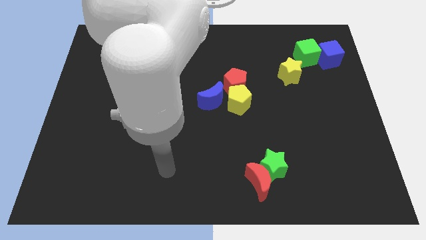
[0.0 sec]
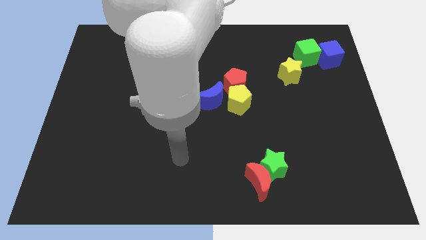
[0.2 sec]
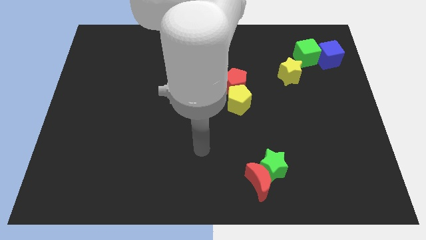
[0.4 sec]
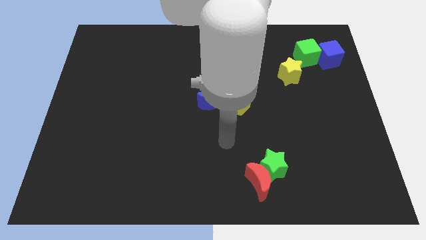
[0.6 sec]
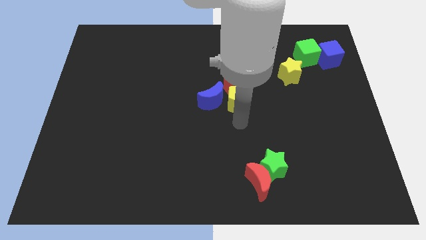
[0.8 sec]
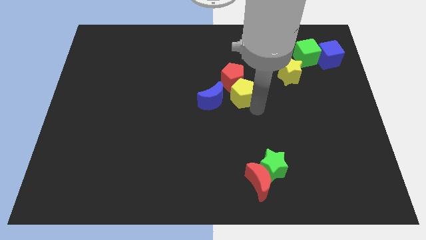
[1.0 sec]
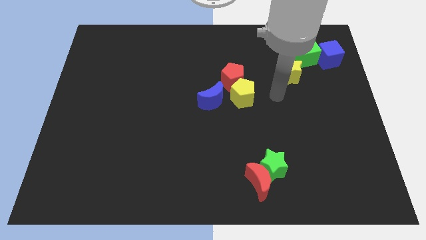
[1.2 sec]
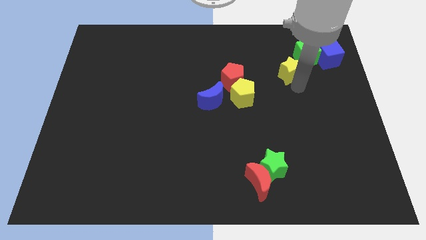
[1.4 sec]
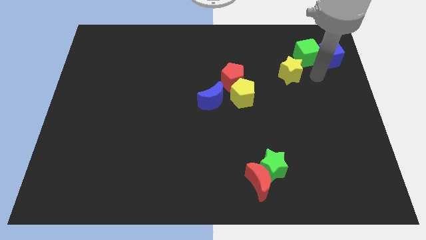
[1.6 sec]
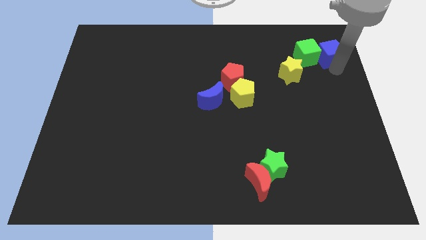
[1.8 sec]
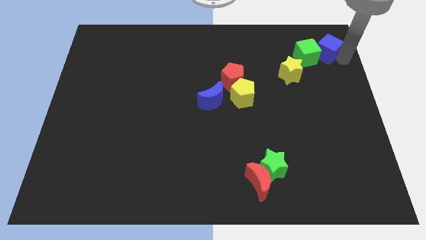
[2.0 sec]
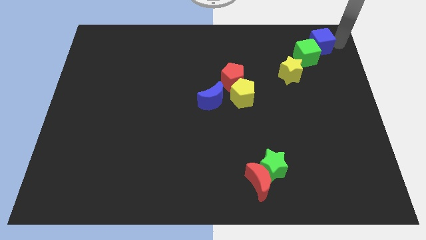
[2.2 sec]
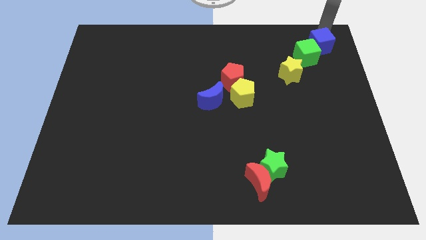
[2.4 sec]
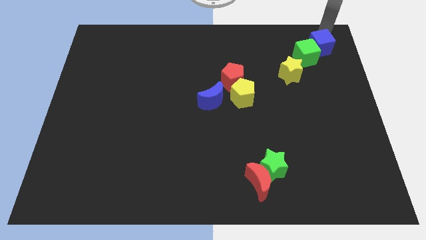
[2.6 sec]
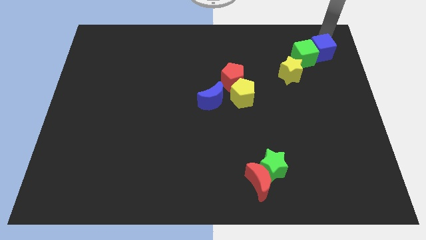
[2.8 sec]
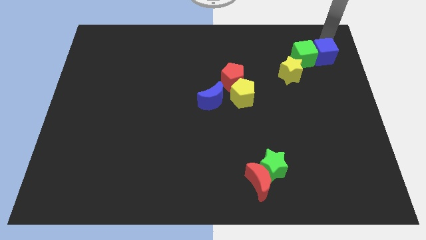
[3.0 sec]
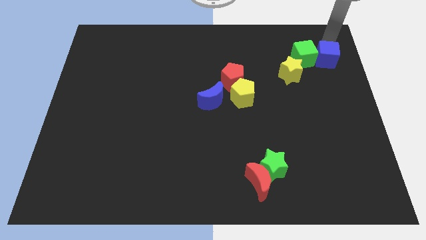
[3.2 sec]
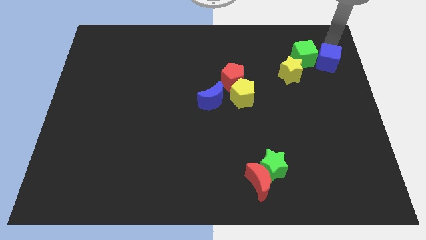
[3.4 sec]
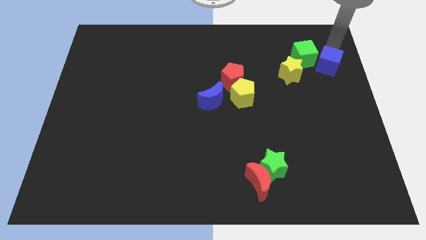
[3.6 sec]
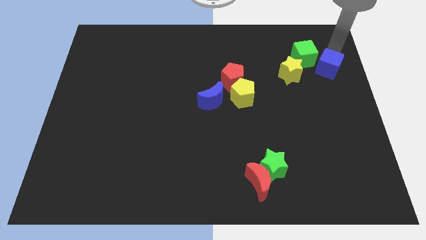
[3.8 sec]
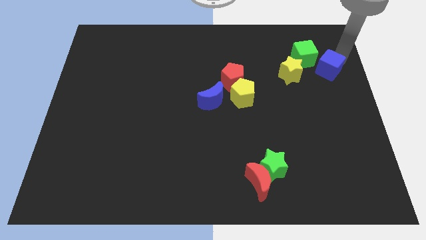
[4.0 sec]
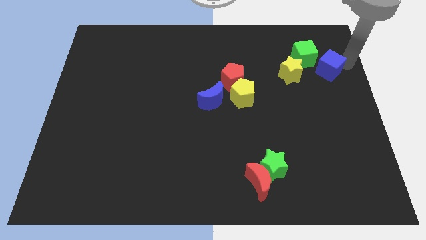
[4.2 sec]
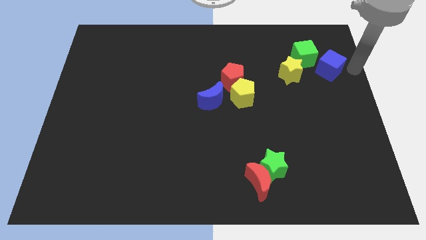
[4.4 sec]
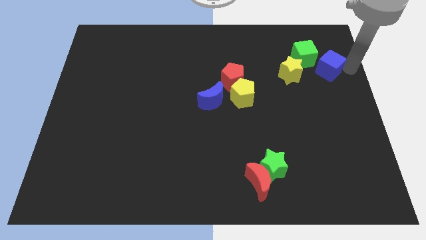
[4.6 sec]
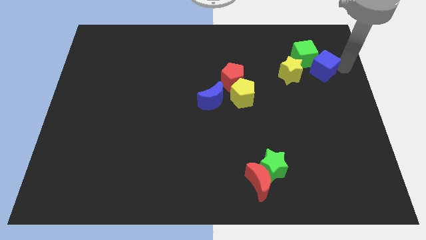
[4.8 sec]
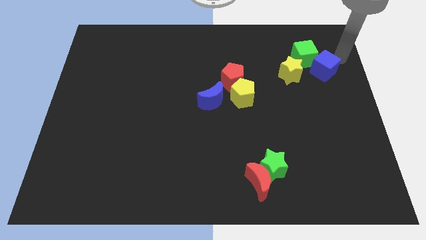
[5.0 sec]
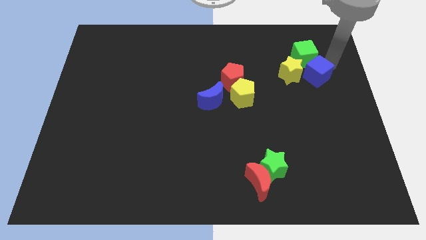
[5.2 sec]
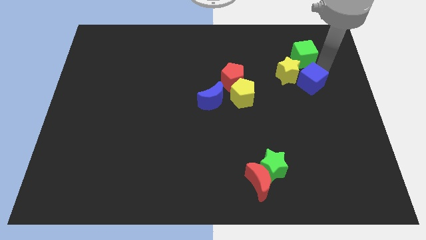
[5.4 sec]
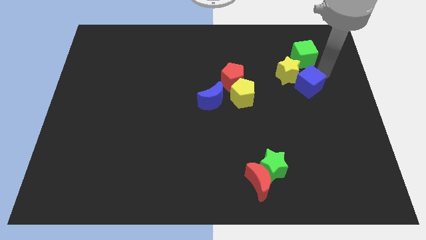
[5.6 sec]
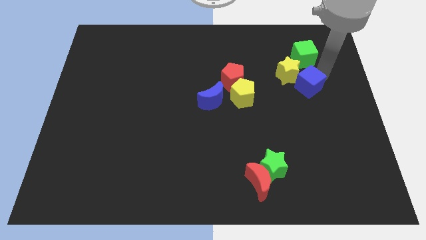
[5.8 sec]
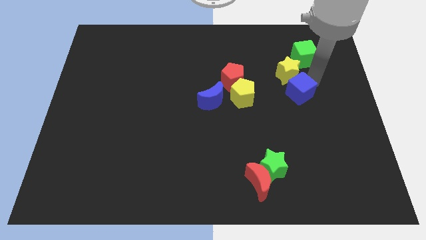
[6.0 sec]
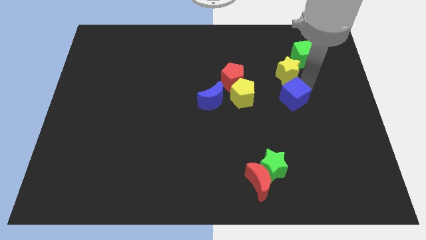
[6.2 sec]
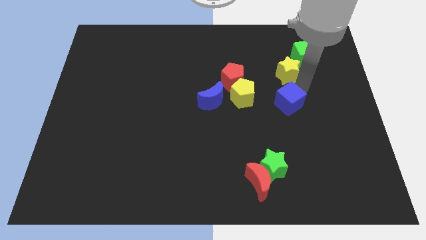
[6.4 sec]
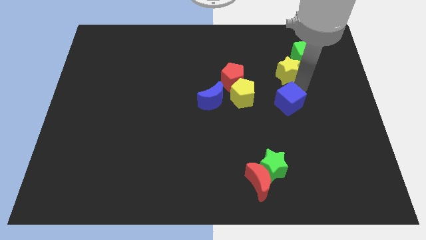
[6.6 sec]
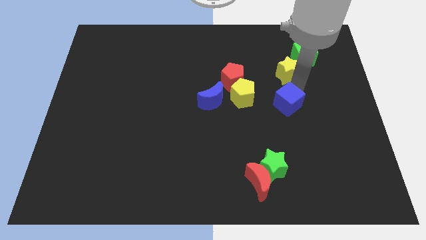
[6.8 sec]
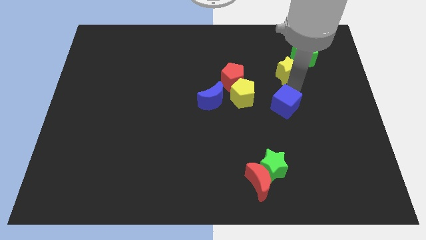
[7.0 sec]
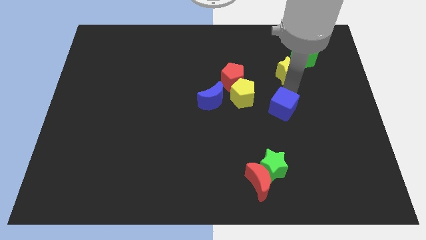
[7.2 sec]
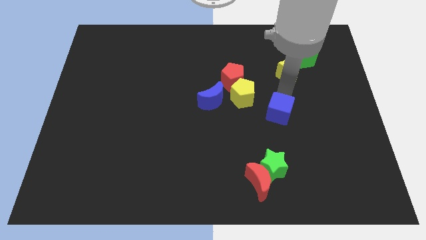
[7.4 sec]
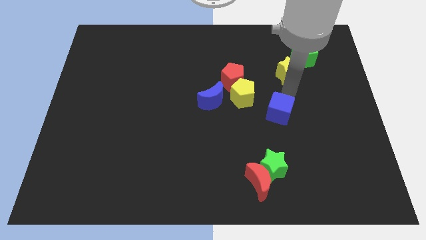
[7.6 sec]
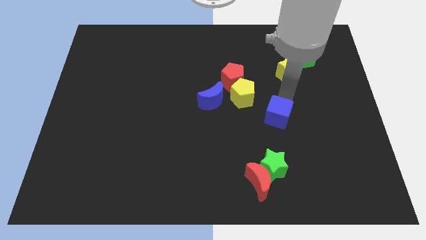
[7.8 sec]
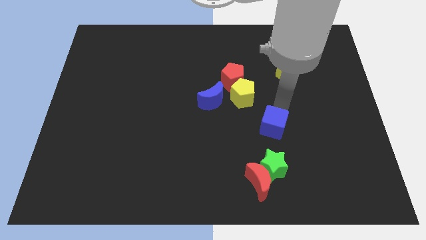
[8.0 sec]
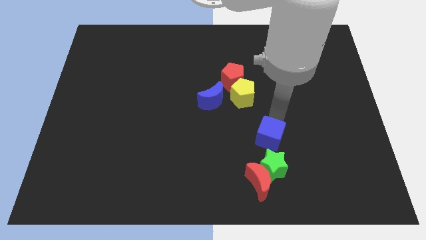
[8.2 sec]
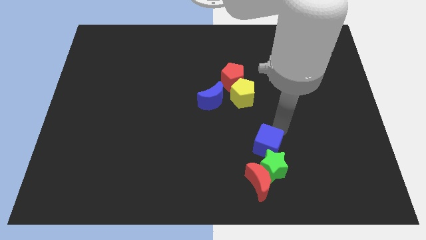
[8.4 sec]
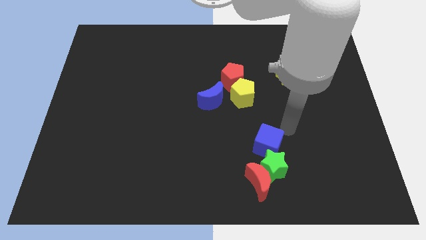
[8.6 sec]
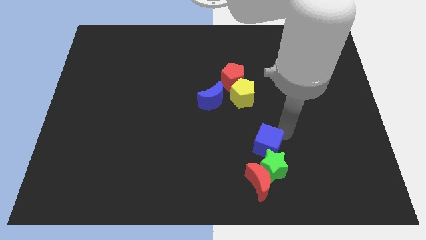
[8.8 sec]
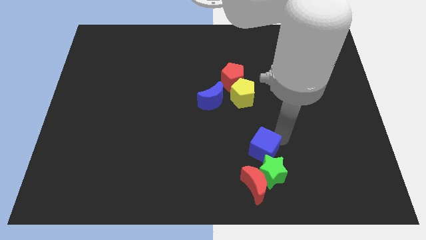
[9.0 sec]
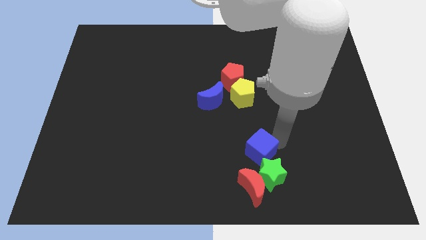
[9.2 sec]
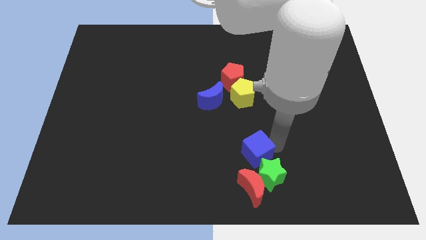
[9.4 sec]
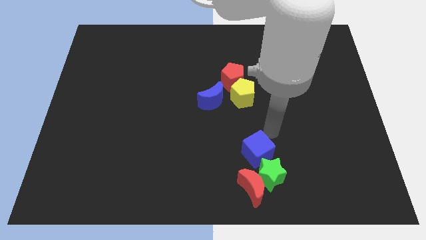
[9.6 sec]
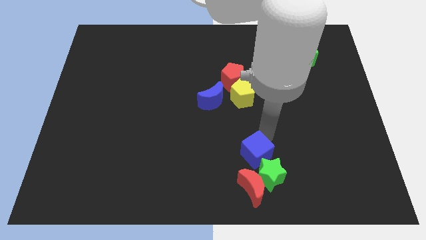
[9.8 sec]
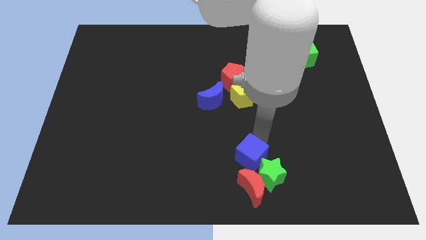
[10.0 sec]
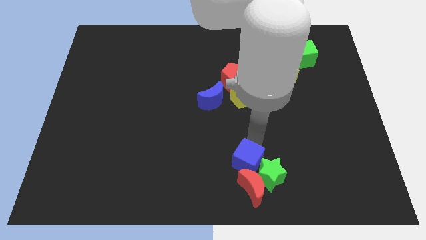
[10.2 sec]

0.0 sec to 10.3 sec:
put the blue cube to the bottom side

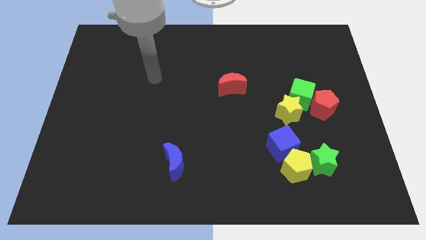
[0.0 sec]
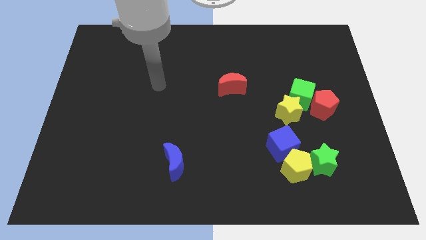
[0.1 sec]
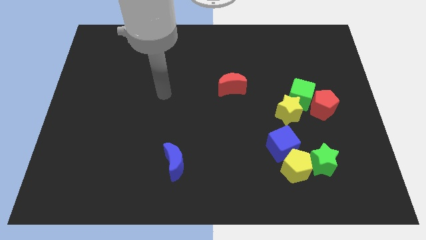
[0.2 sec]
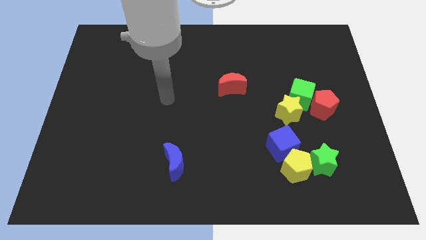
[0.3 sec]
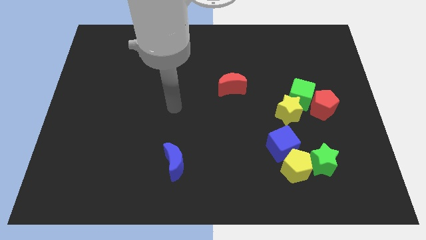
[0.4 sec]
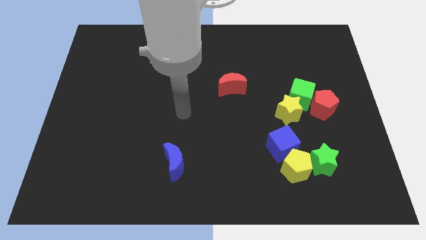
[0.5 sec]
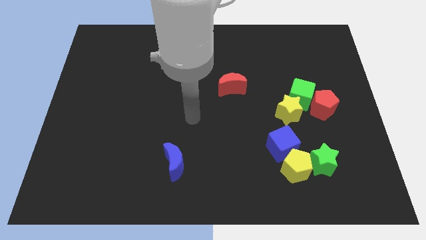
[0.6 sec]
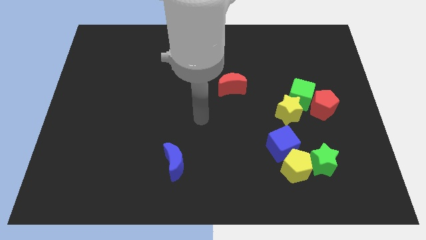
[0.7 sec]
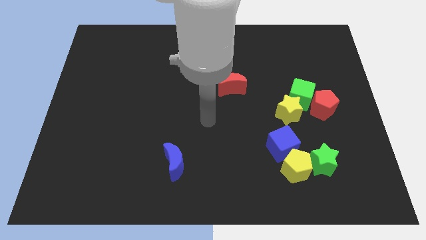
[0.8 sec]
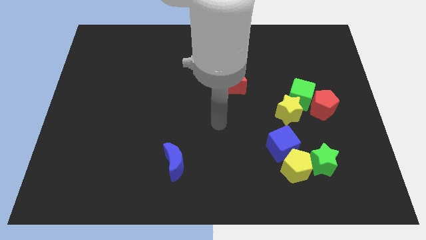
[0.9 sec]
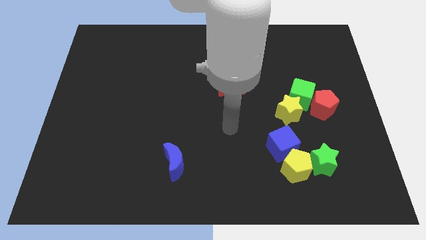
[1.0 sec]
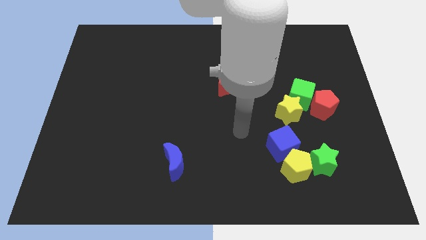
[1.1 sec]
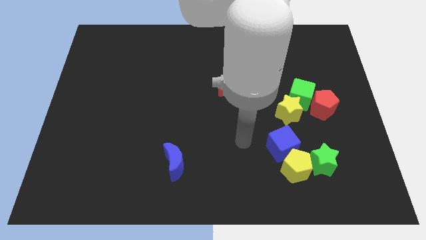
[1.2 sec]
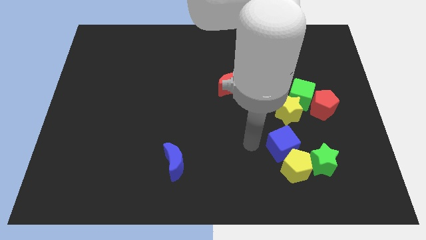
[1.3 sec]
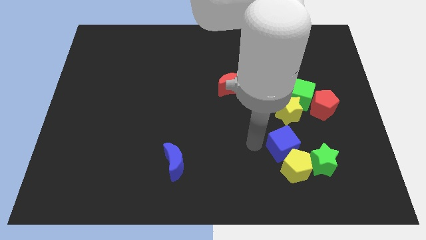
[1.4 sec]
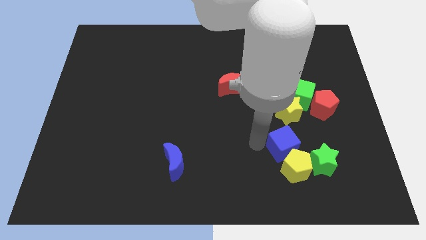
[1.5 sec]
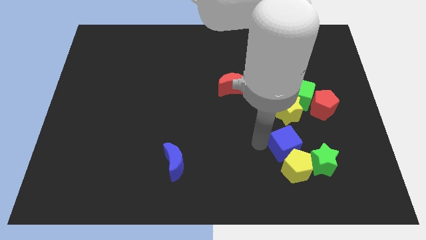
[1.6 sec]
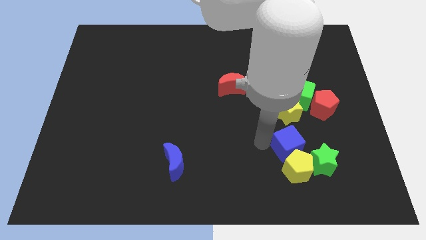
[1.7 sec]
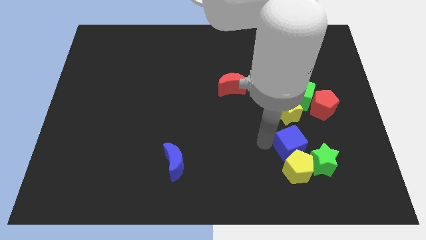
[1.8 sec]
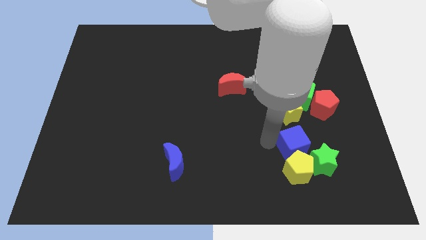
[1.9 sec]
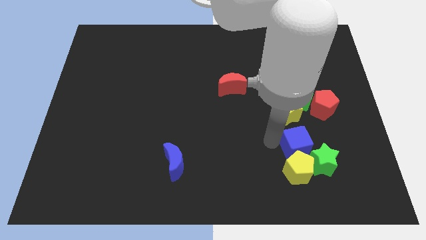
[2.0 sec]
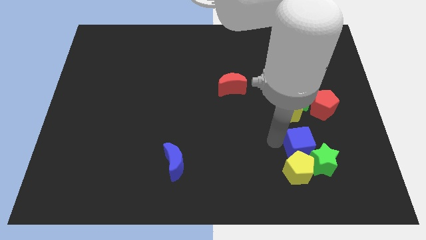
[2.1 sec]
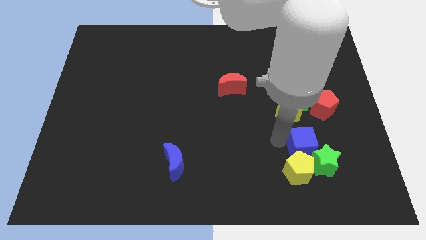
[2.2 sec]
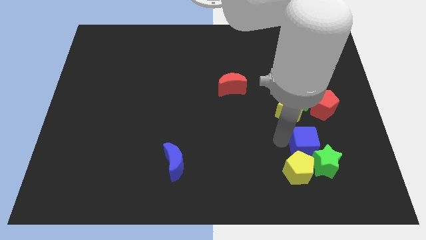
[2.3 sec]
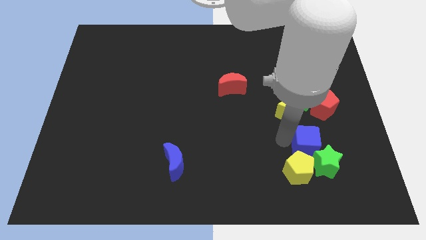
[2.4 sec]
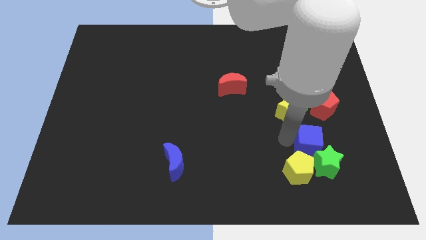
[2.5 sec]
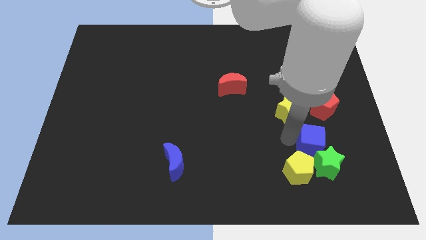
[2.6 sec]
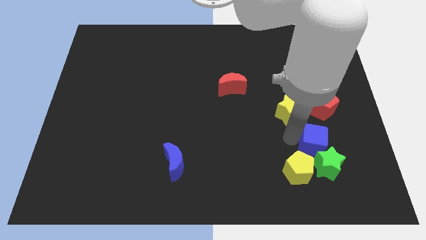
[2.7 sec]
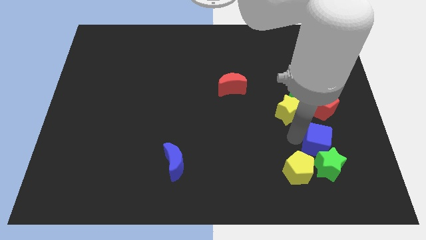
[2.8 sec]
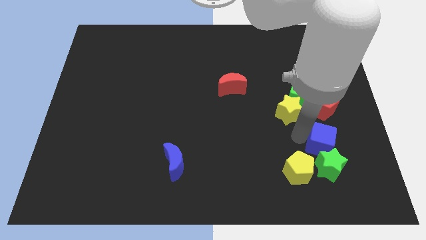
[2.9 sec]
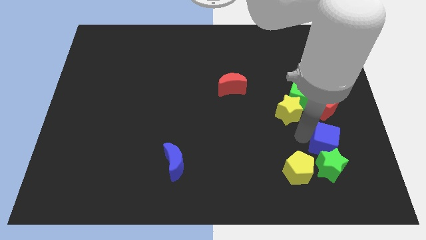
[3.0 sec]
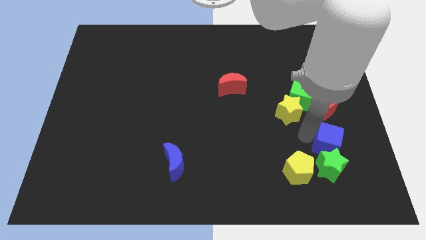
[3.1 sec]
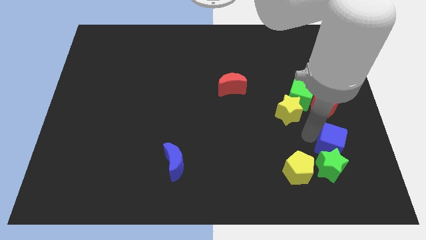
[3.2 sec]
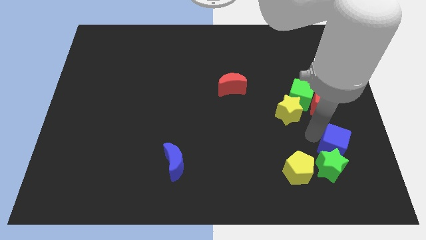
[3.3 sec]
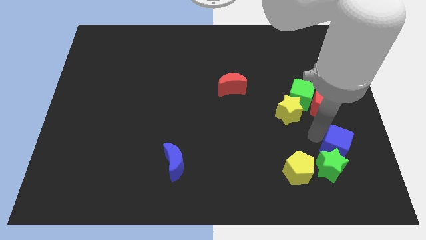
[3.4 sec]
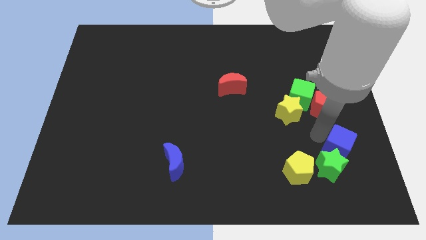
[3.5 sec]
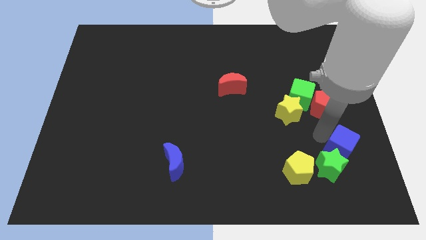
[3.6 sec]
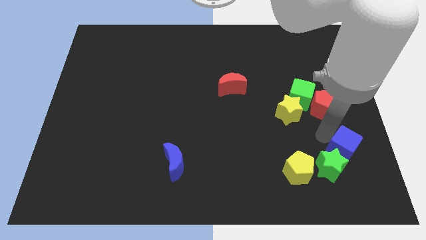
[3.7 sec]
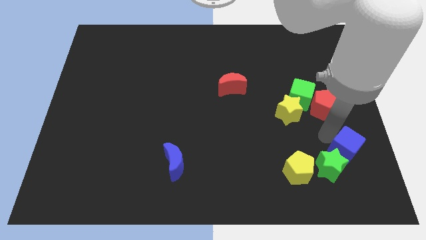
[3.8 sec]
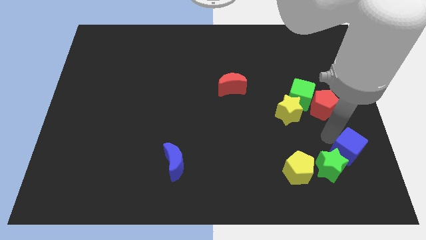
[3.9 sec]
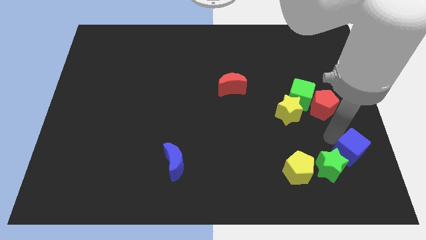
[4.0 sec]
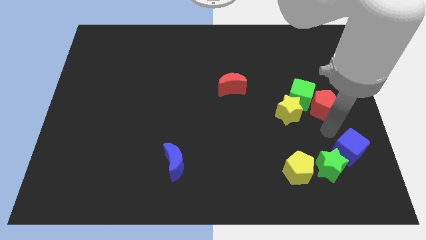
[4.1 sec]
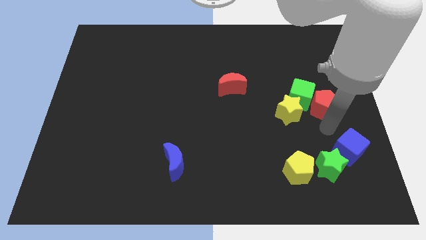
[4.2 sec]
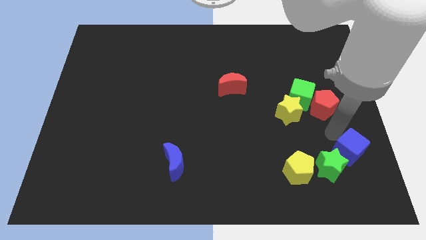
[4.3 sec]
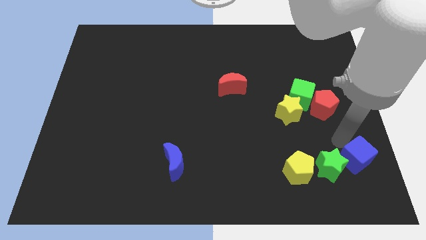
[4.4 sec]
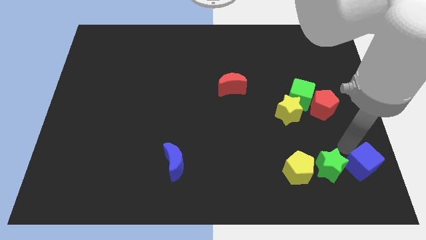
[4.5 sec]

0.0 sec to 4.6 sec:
move the blue cube to the bottom right
